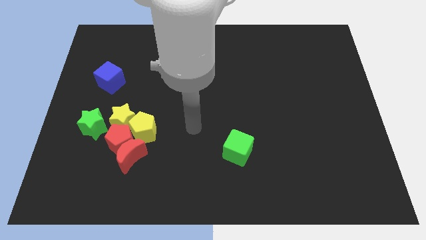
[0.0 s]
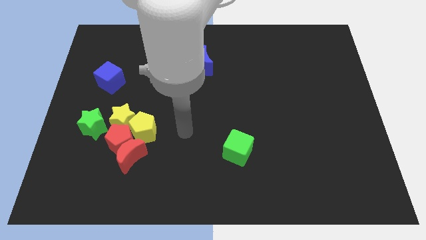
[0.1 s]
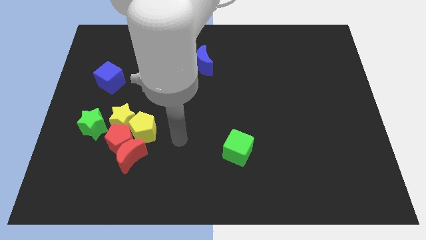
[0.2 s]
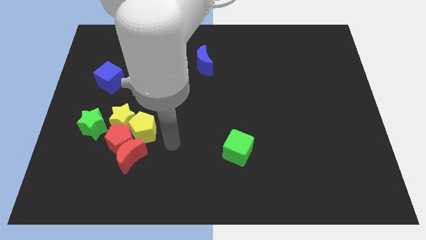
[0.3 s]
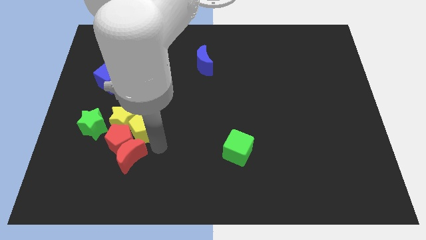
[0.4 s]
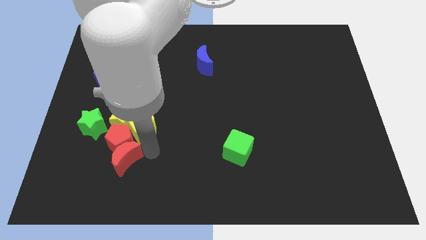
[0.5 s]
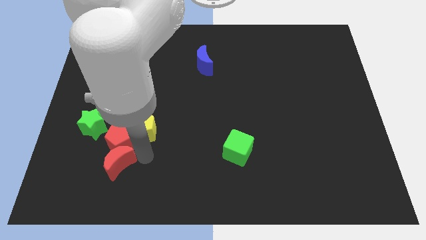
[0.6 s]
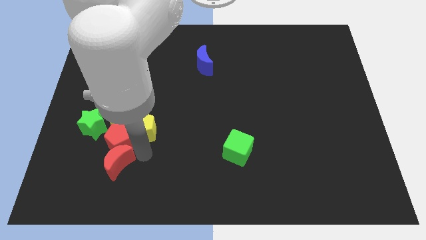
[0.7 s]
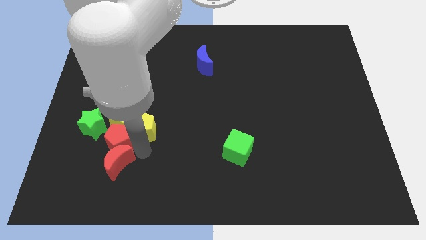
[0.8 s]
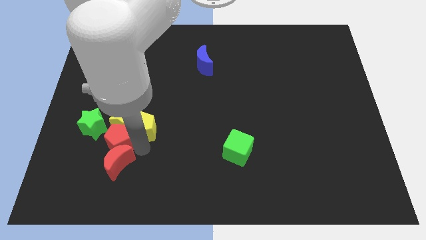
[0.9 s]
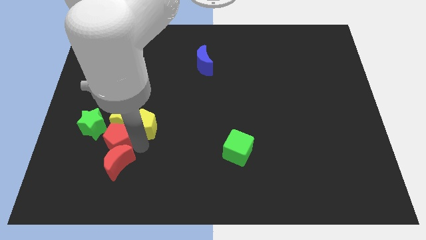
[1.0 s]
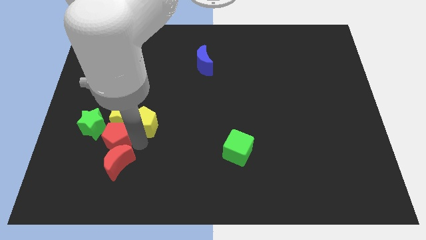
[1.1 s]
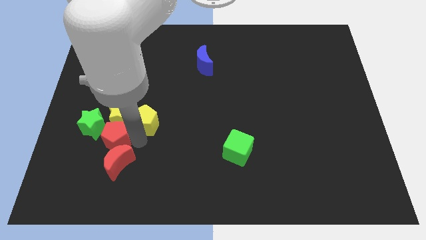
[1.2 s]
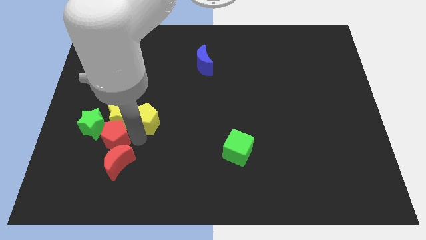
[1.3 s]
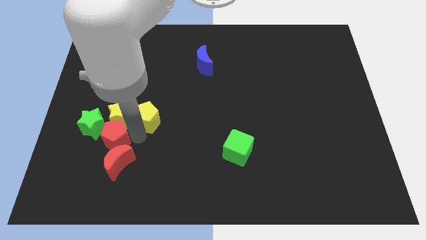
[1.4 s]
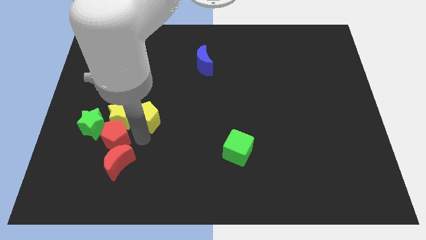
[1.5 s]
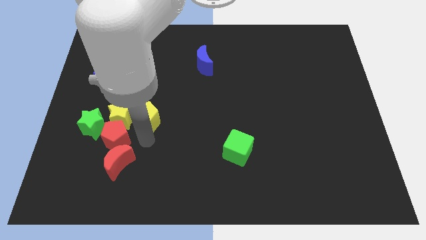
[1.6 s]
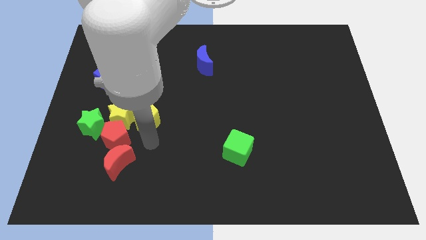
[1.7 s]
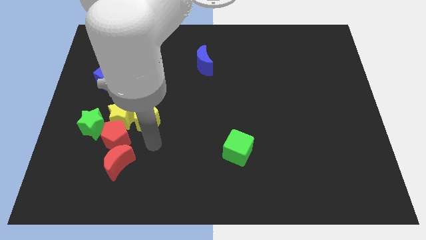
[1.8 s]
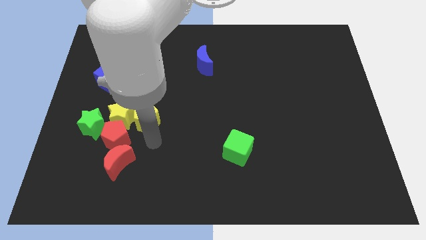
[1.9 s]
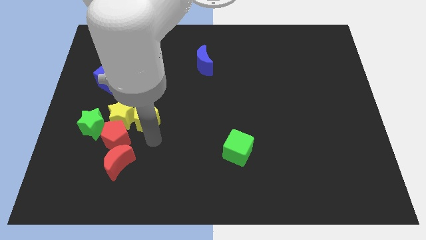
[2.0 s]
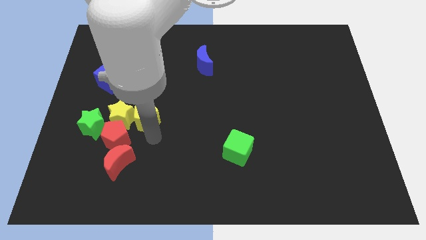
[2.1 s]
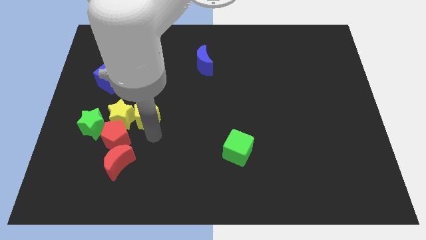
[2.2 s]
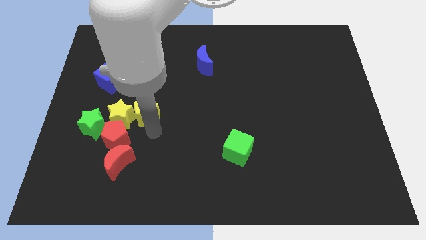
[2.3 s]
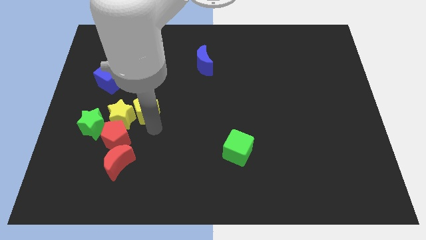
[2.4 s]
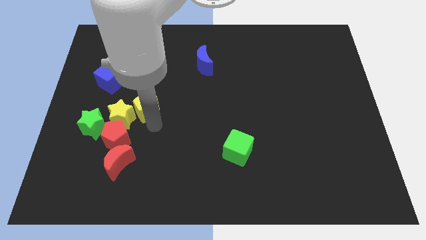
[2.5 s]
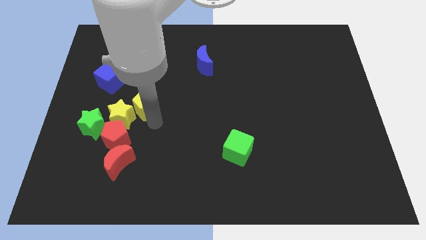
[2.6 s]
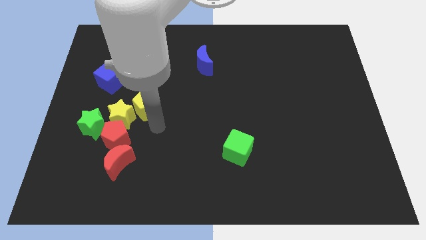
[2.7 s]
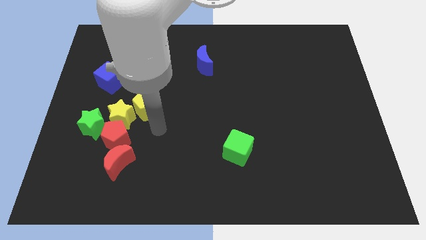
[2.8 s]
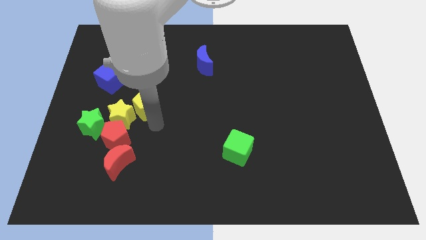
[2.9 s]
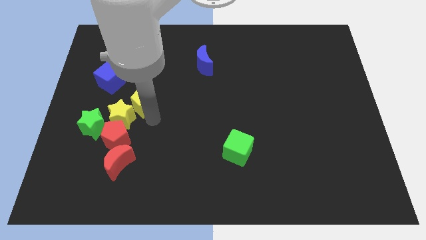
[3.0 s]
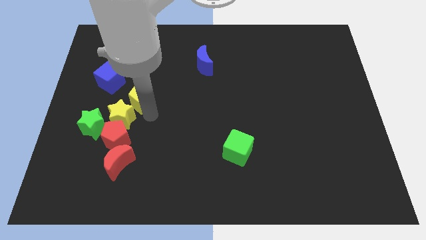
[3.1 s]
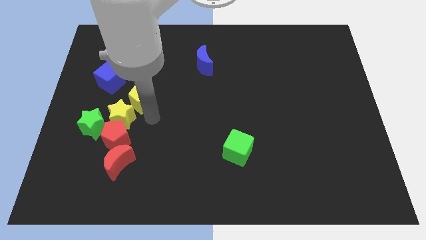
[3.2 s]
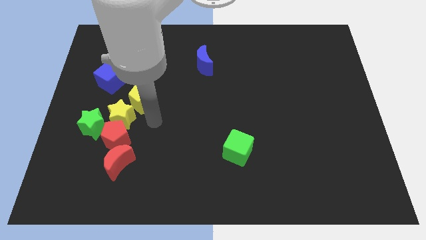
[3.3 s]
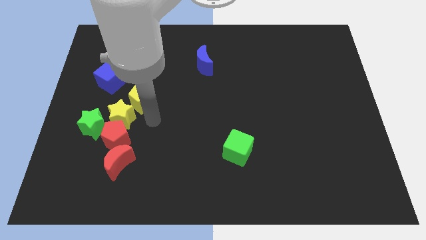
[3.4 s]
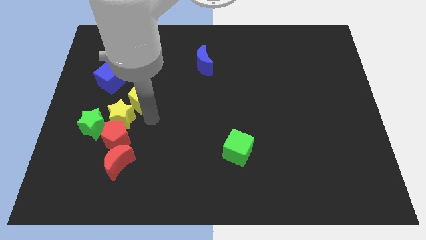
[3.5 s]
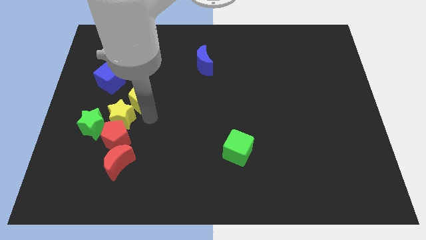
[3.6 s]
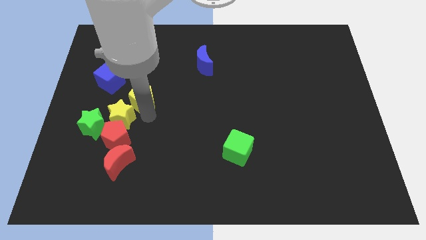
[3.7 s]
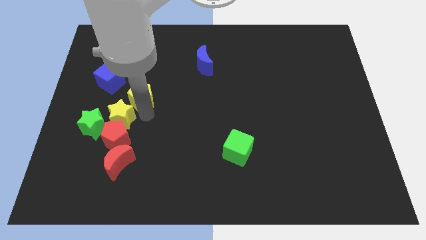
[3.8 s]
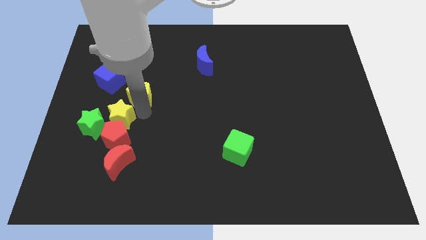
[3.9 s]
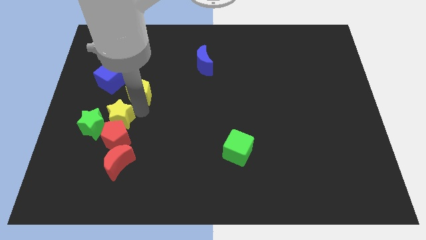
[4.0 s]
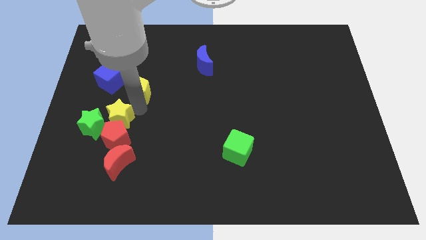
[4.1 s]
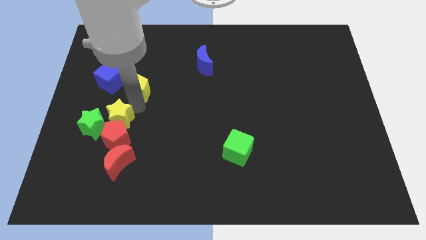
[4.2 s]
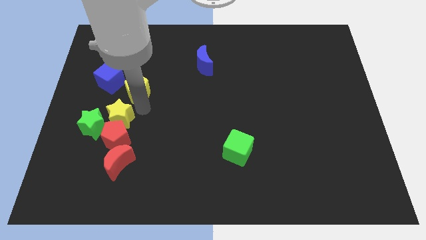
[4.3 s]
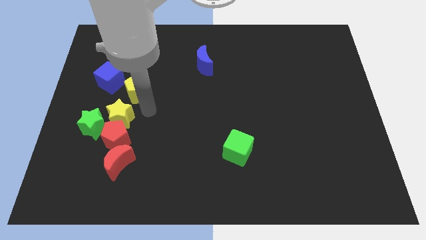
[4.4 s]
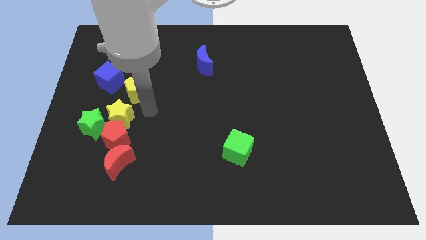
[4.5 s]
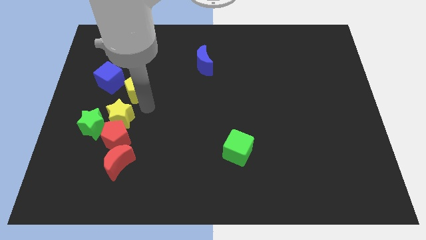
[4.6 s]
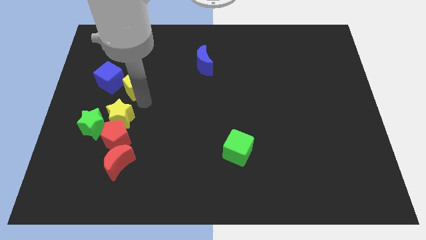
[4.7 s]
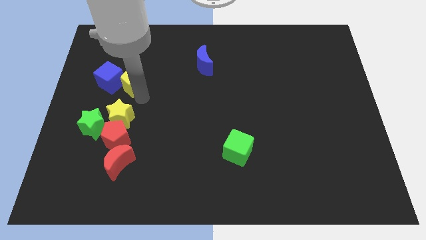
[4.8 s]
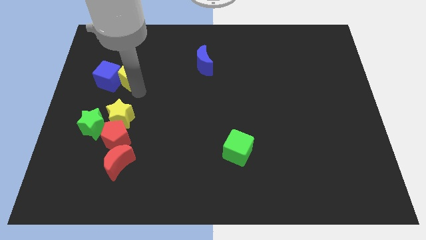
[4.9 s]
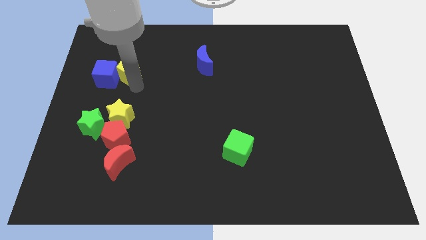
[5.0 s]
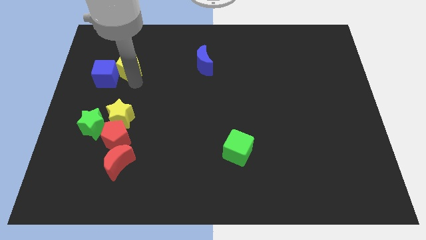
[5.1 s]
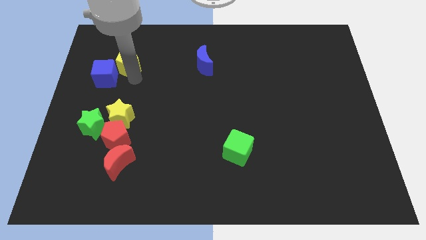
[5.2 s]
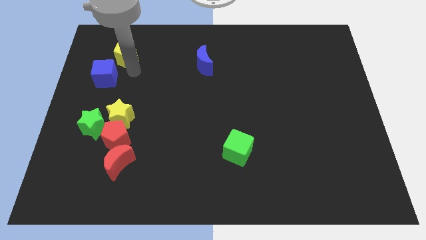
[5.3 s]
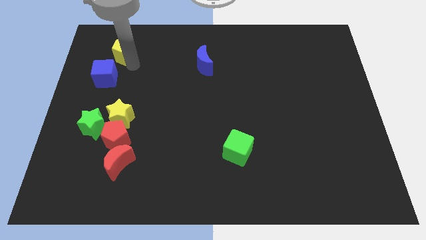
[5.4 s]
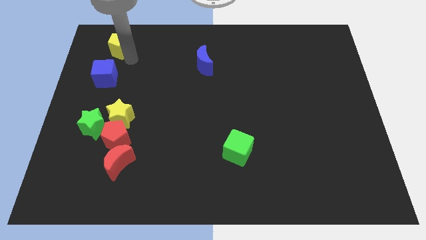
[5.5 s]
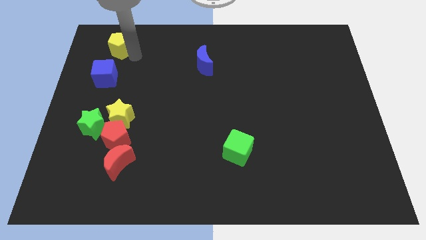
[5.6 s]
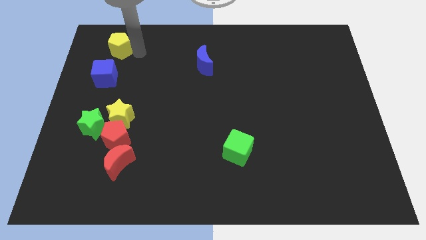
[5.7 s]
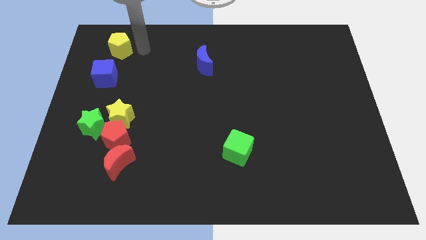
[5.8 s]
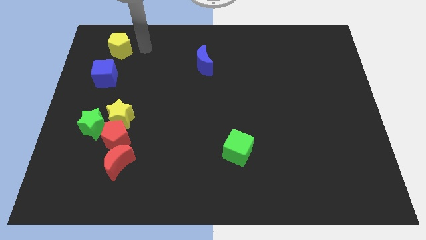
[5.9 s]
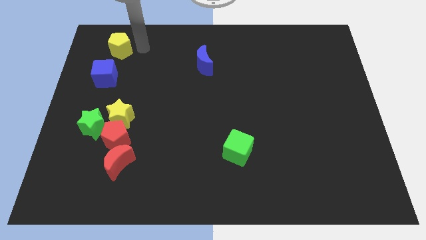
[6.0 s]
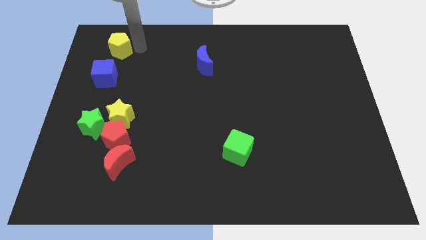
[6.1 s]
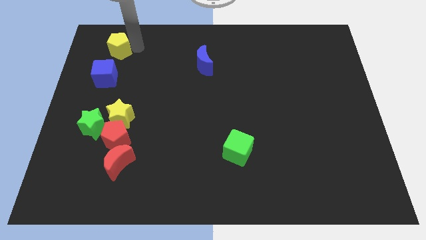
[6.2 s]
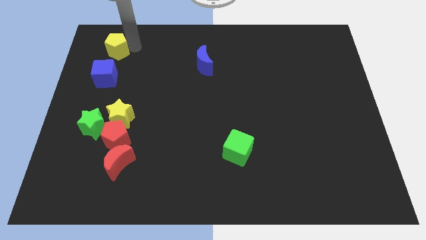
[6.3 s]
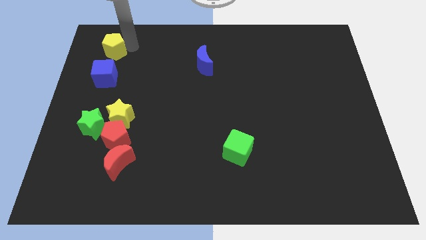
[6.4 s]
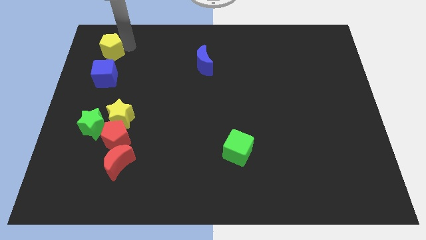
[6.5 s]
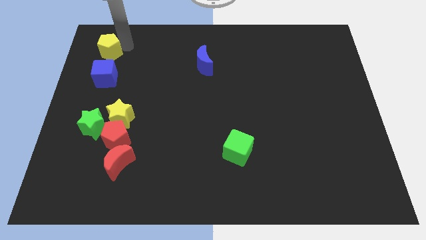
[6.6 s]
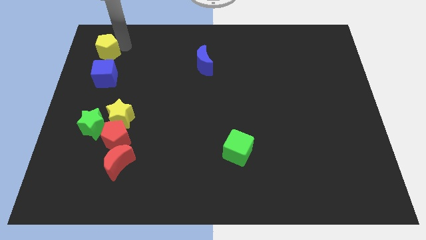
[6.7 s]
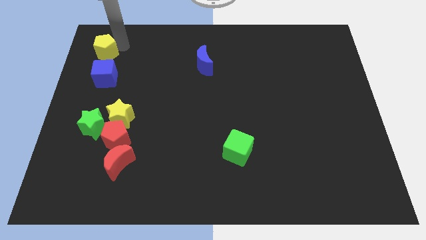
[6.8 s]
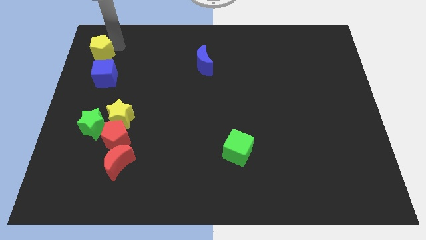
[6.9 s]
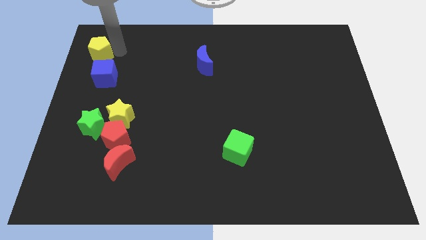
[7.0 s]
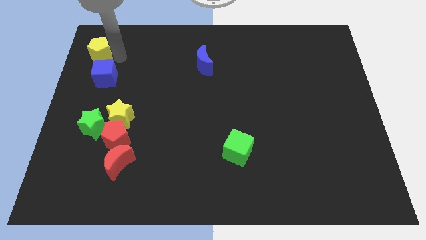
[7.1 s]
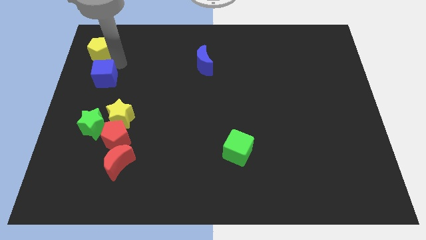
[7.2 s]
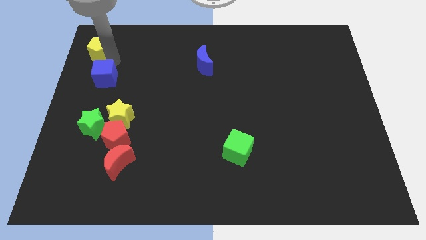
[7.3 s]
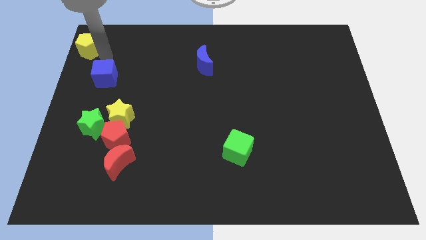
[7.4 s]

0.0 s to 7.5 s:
slide the yellow pentagon to the top left of the board
